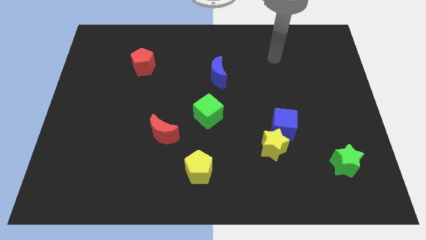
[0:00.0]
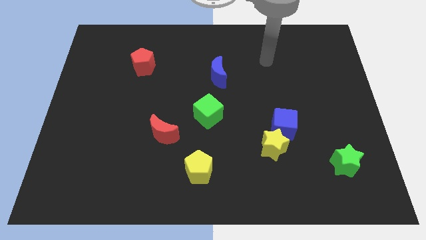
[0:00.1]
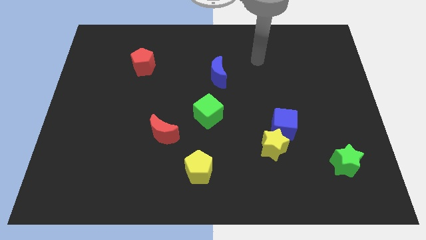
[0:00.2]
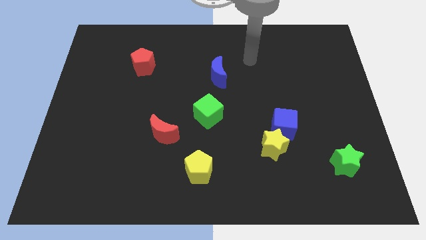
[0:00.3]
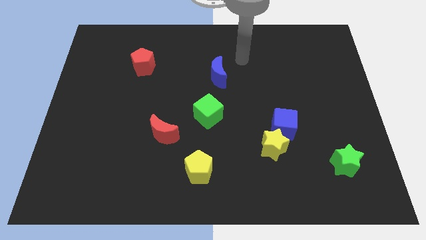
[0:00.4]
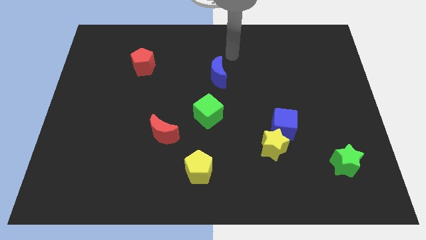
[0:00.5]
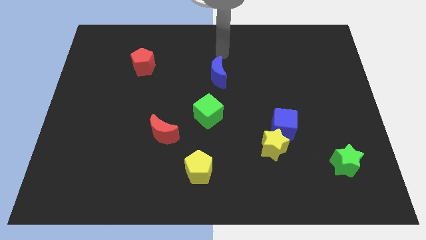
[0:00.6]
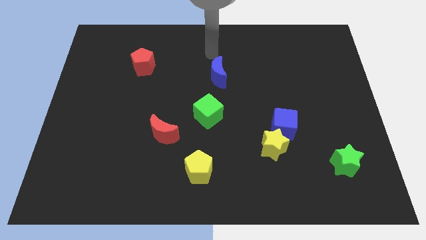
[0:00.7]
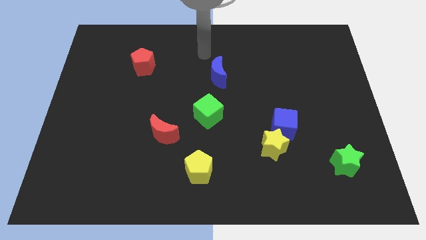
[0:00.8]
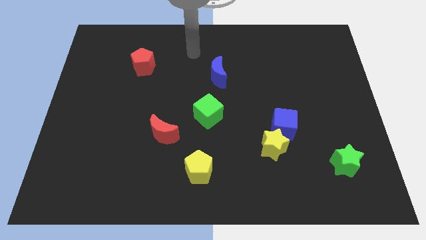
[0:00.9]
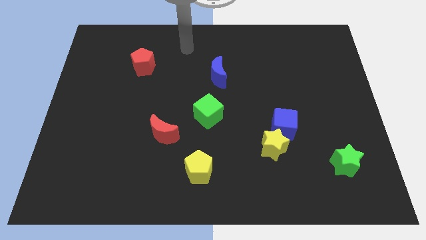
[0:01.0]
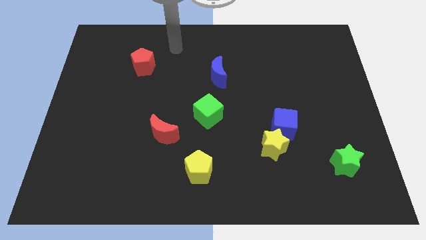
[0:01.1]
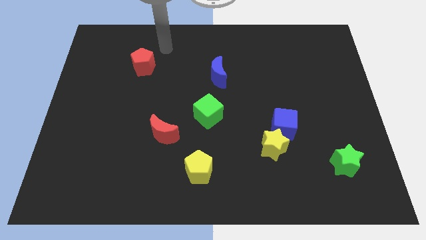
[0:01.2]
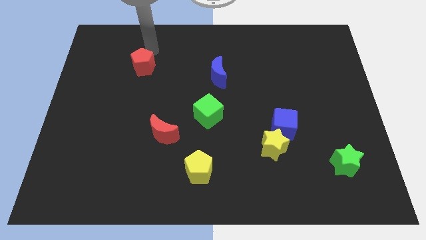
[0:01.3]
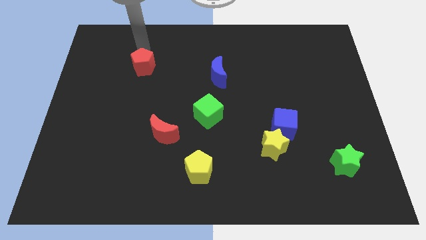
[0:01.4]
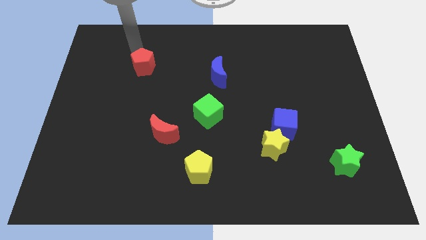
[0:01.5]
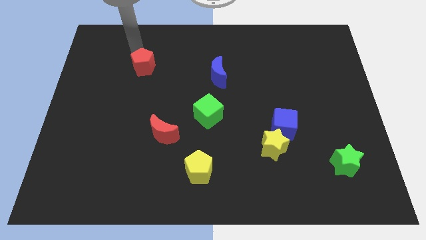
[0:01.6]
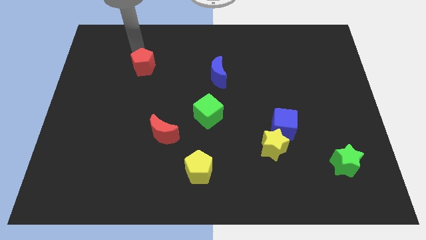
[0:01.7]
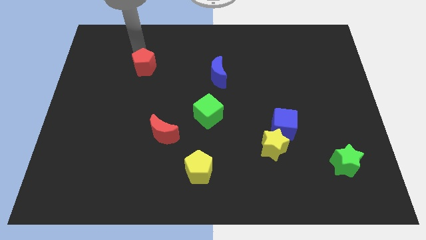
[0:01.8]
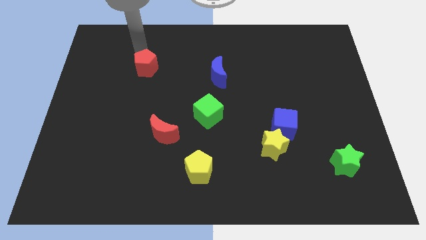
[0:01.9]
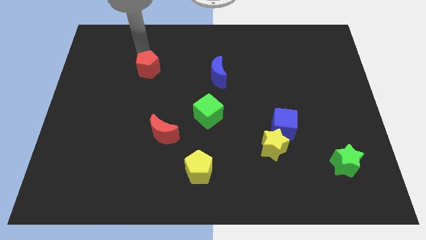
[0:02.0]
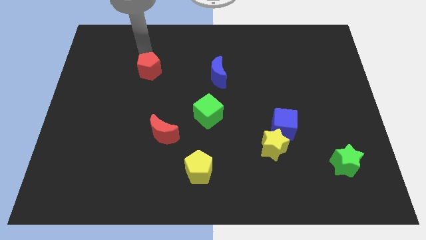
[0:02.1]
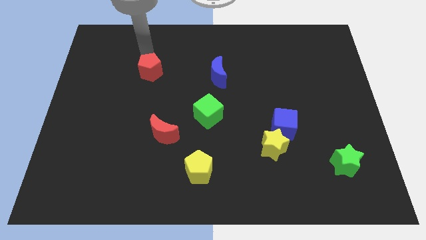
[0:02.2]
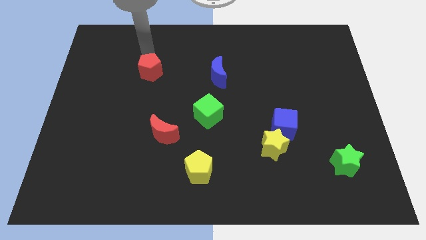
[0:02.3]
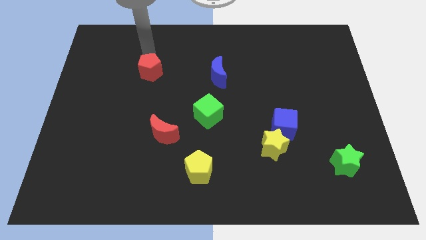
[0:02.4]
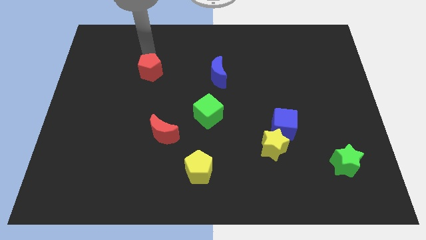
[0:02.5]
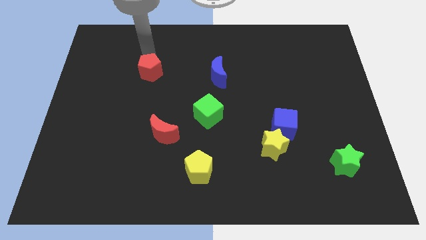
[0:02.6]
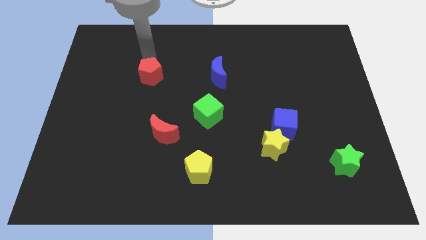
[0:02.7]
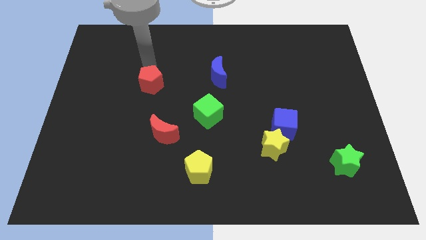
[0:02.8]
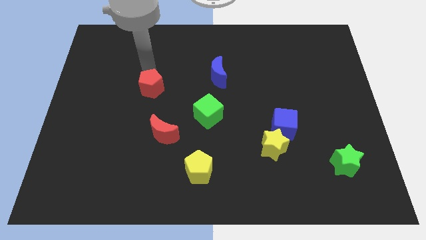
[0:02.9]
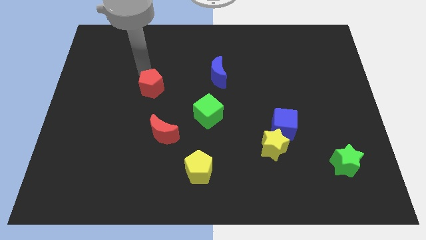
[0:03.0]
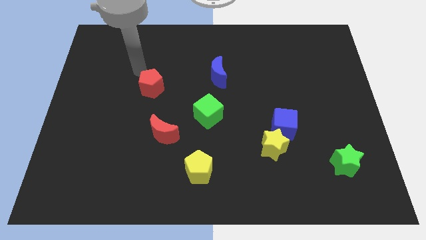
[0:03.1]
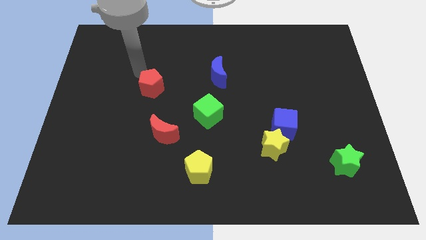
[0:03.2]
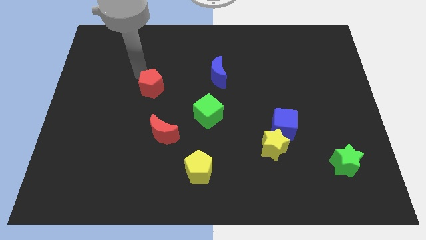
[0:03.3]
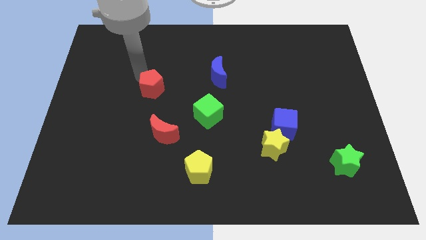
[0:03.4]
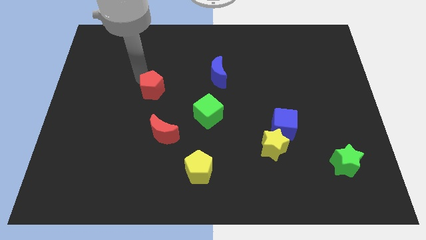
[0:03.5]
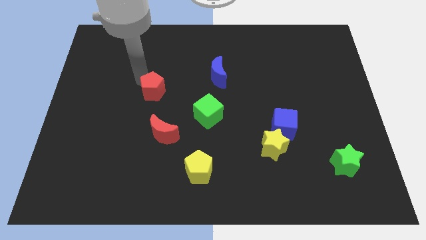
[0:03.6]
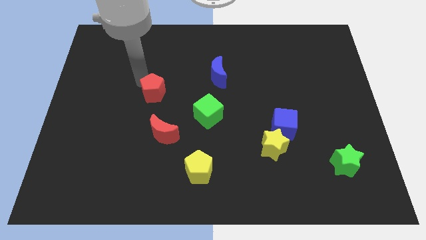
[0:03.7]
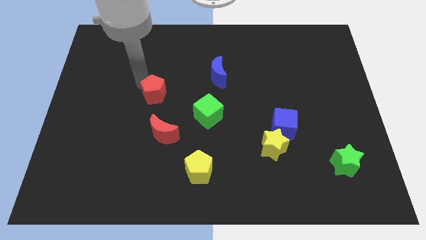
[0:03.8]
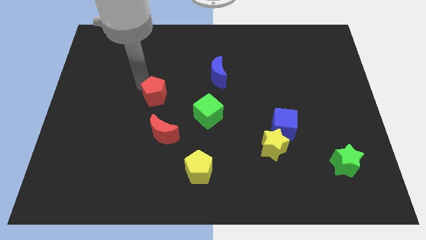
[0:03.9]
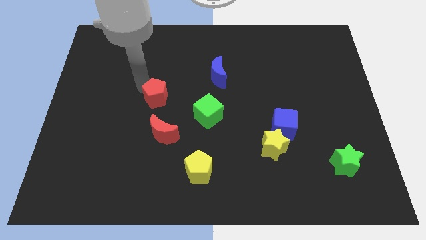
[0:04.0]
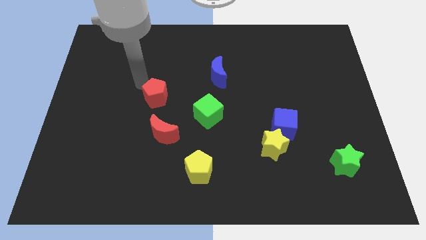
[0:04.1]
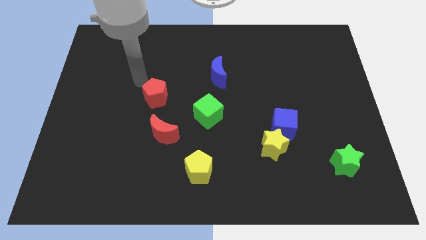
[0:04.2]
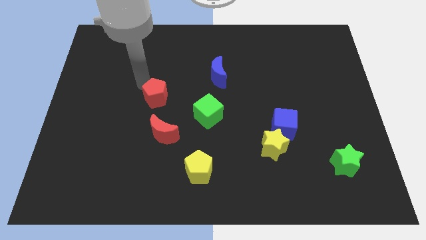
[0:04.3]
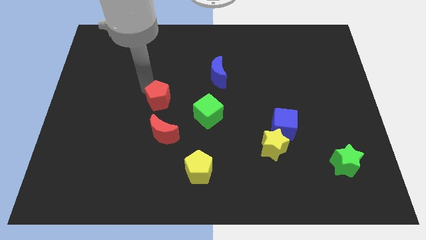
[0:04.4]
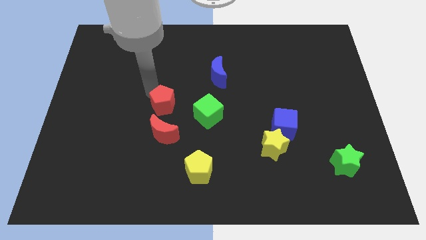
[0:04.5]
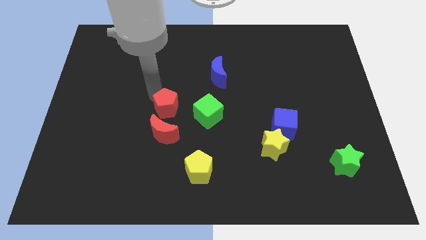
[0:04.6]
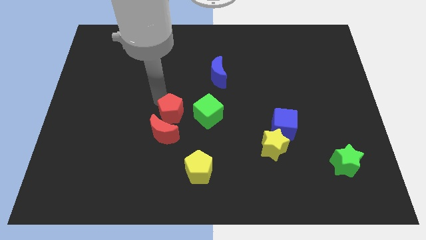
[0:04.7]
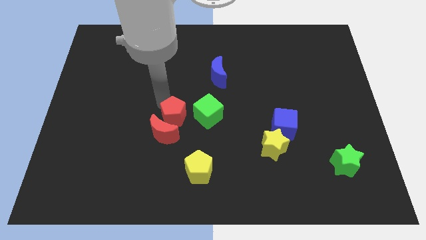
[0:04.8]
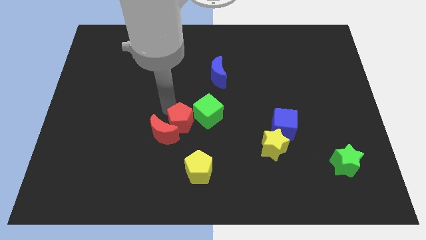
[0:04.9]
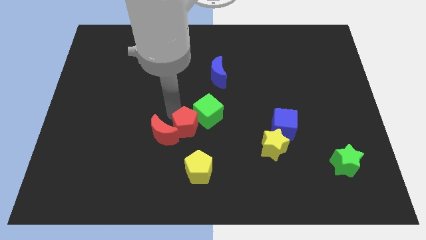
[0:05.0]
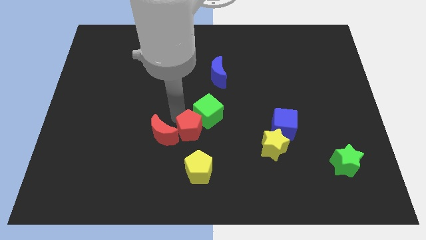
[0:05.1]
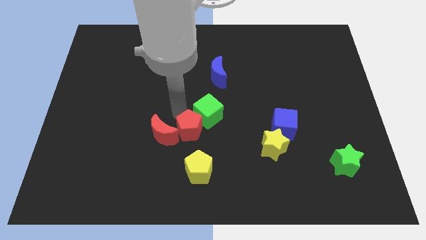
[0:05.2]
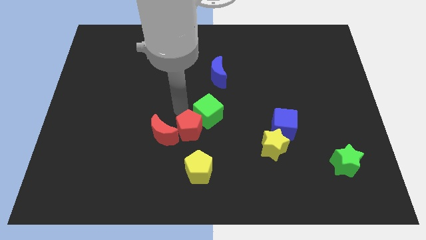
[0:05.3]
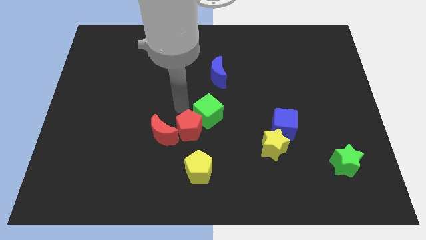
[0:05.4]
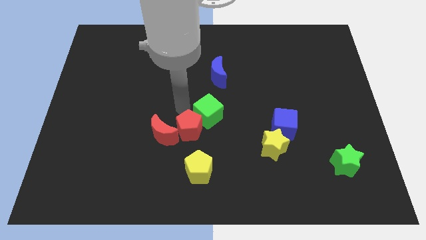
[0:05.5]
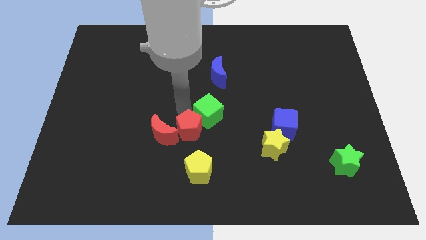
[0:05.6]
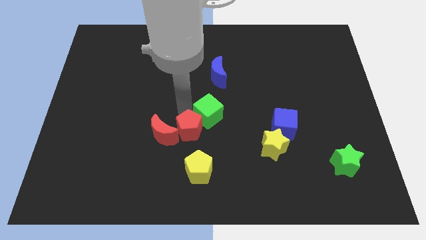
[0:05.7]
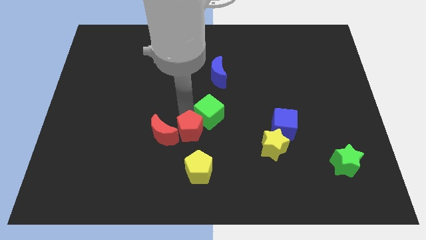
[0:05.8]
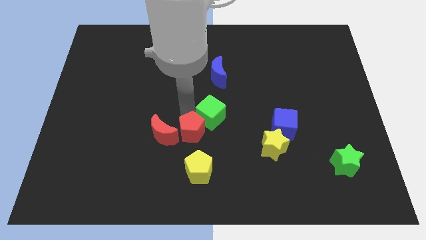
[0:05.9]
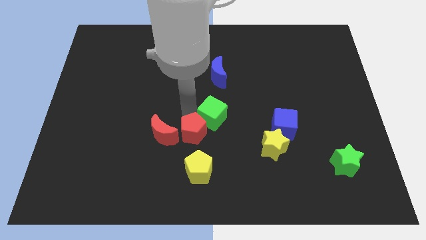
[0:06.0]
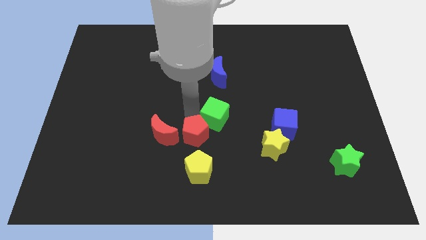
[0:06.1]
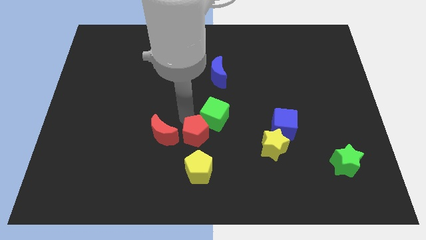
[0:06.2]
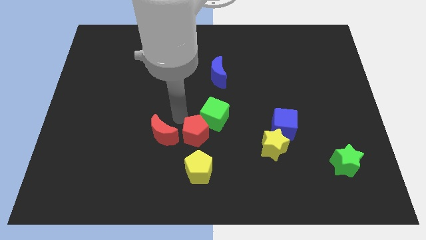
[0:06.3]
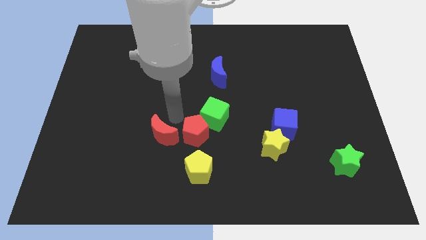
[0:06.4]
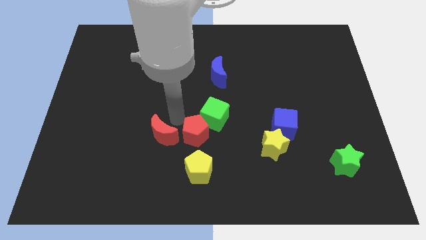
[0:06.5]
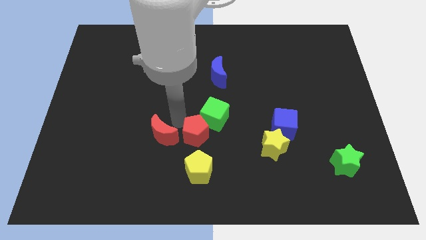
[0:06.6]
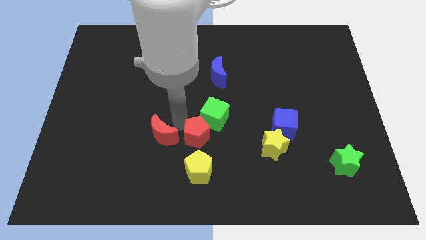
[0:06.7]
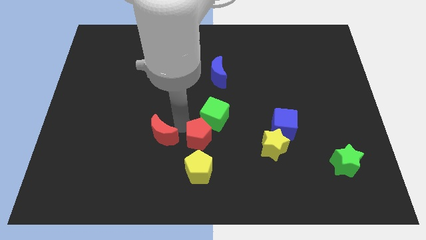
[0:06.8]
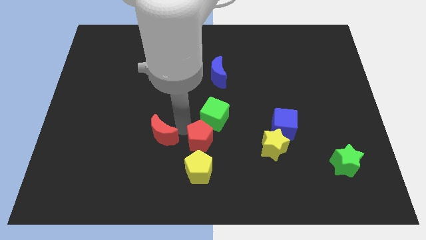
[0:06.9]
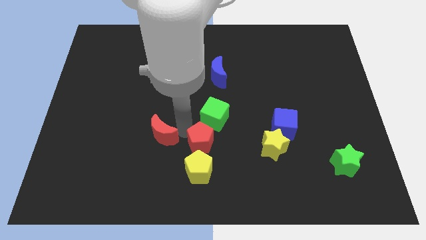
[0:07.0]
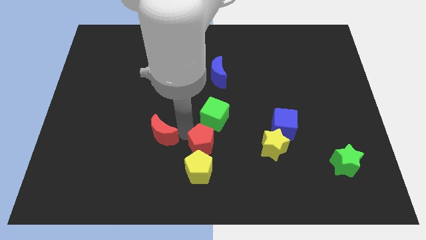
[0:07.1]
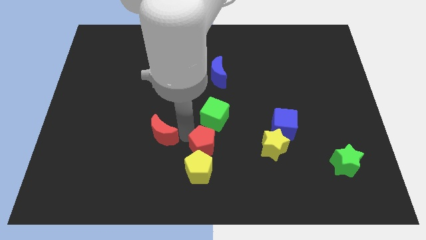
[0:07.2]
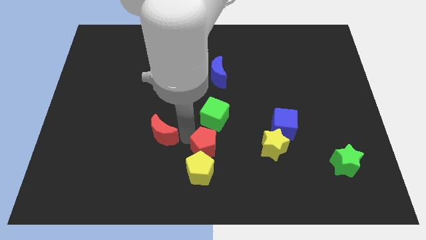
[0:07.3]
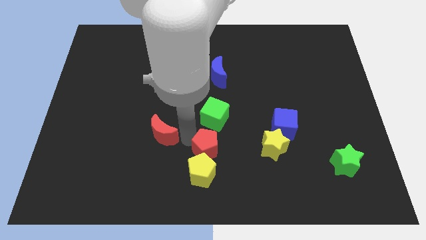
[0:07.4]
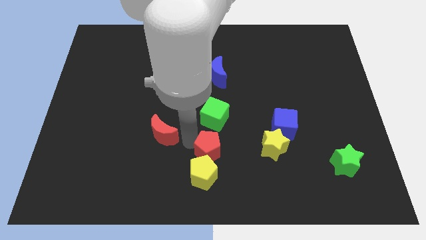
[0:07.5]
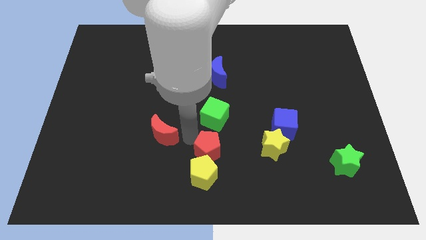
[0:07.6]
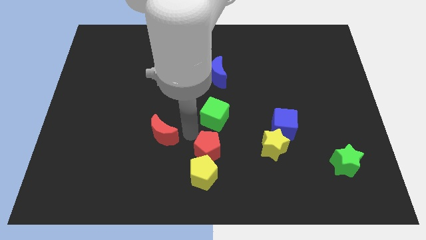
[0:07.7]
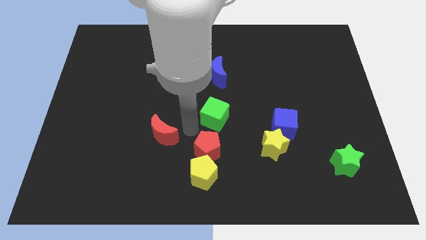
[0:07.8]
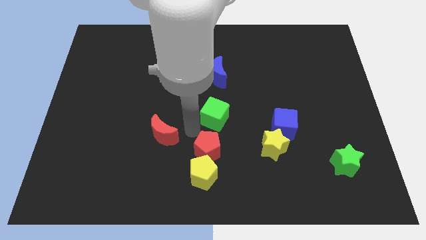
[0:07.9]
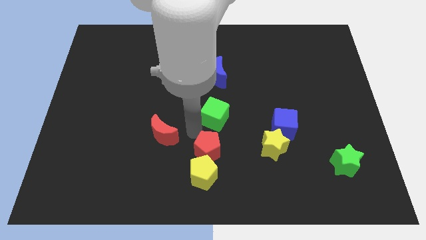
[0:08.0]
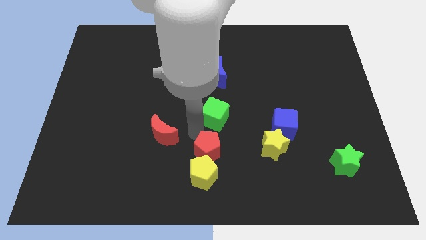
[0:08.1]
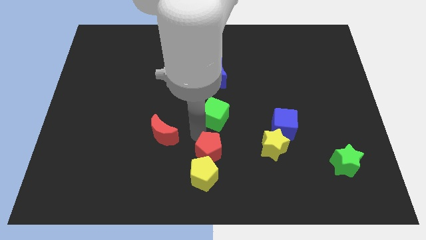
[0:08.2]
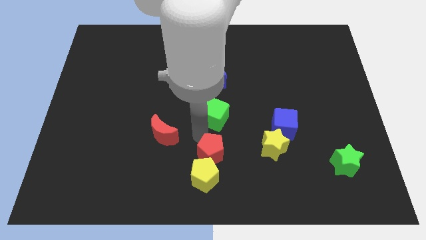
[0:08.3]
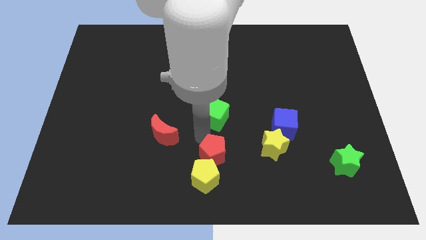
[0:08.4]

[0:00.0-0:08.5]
move the red pentagon to the bottom
